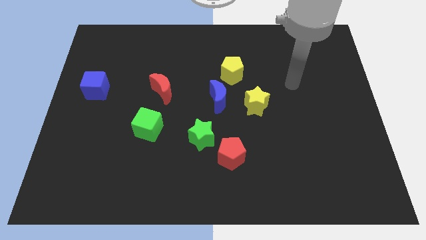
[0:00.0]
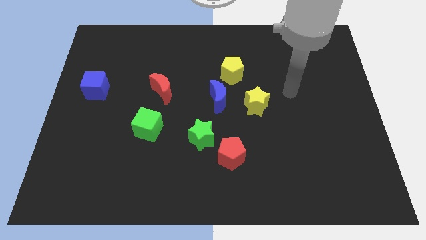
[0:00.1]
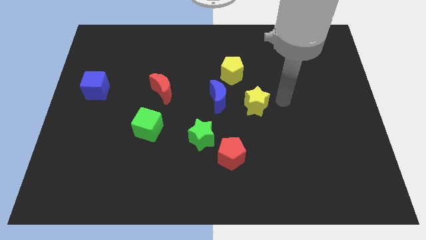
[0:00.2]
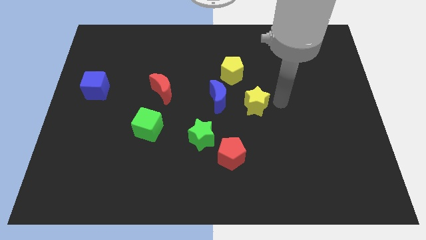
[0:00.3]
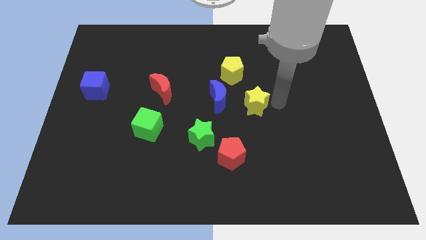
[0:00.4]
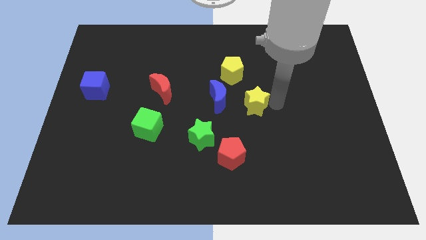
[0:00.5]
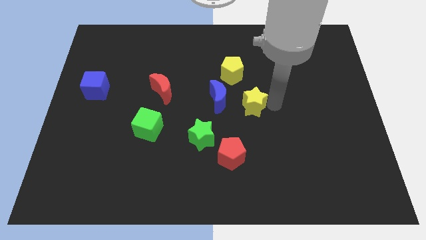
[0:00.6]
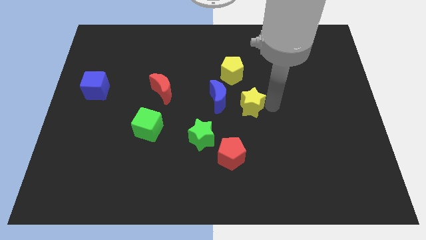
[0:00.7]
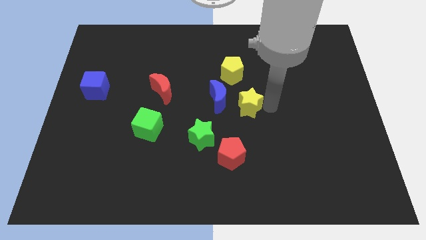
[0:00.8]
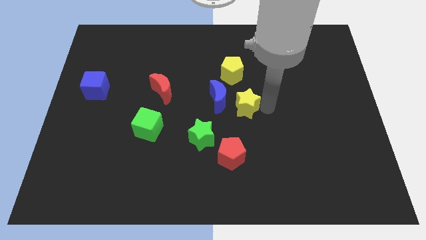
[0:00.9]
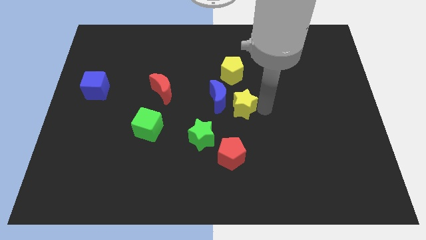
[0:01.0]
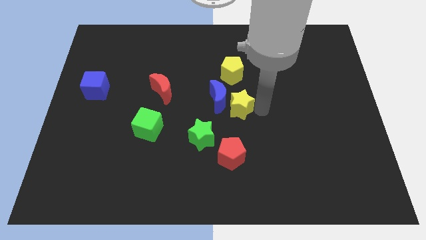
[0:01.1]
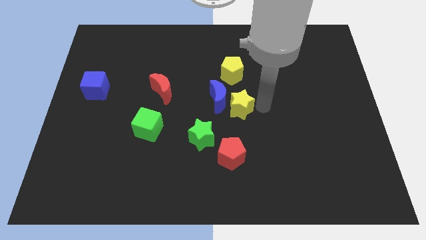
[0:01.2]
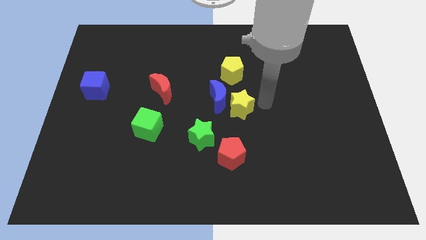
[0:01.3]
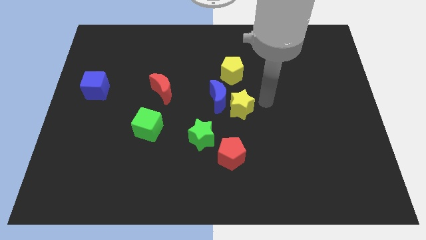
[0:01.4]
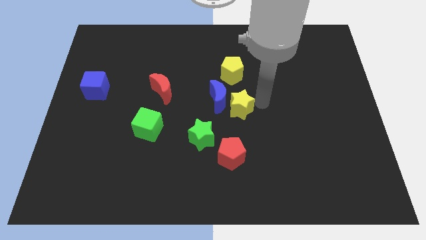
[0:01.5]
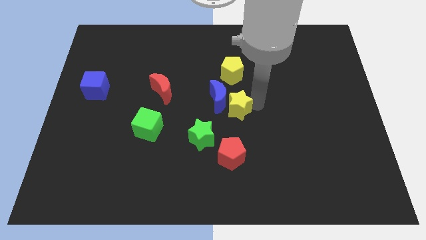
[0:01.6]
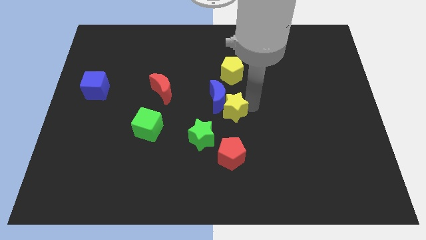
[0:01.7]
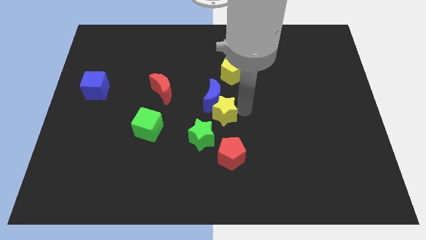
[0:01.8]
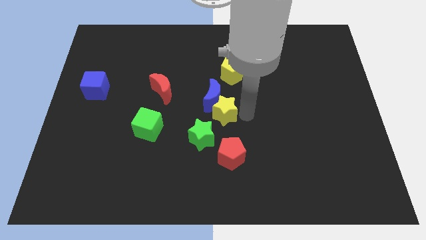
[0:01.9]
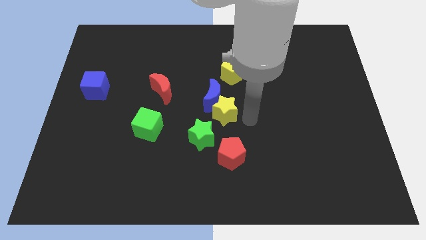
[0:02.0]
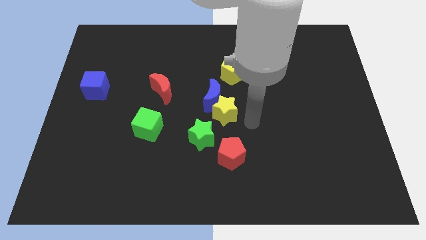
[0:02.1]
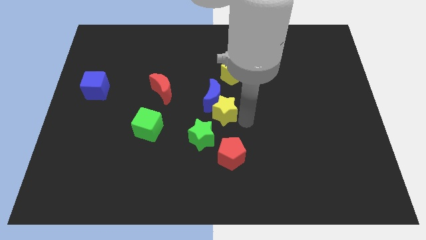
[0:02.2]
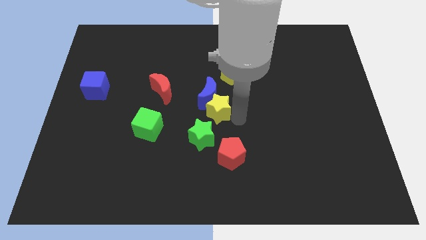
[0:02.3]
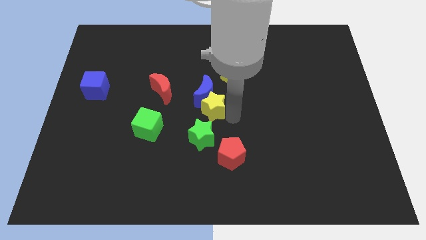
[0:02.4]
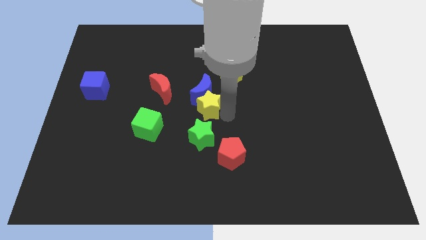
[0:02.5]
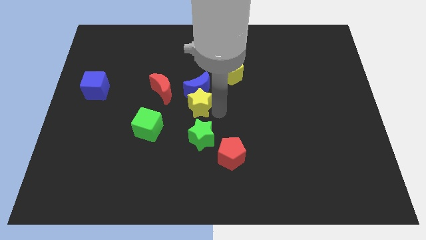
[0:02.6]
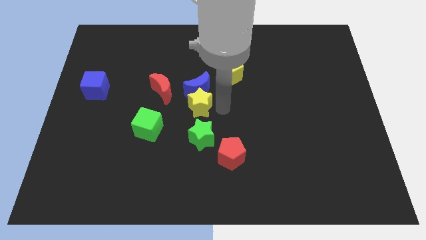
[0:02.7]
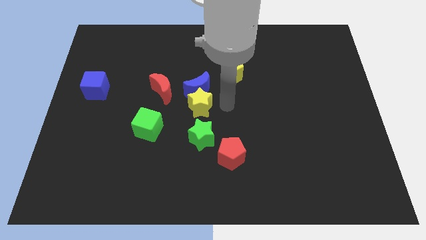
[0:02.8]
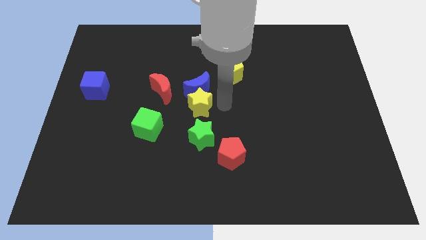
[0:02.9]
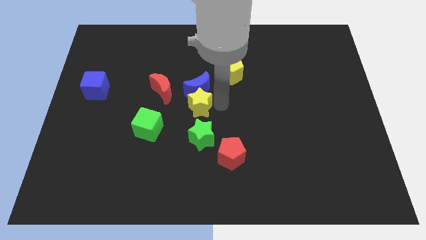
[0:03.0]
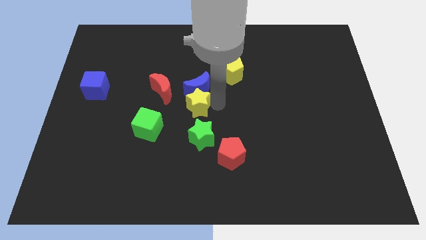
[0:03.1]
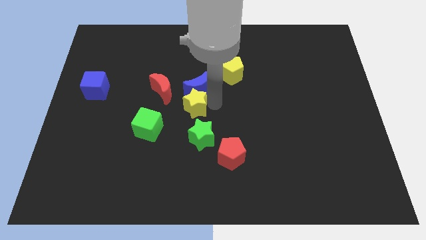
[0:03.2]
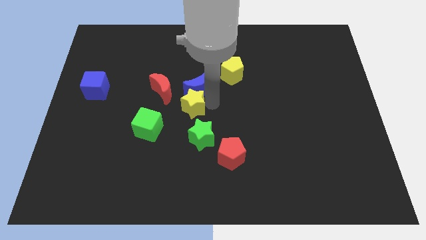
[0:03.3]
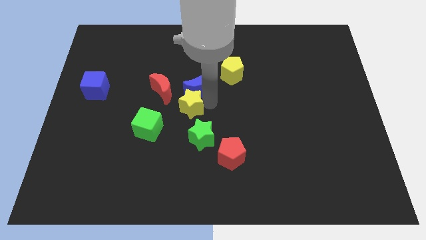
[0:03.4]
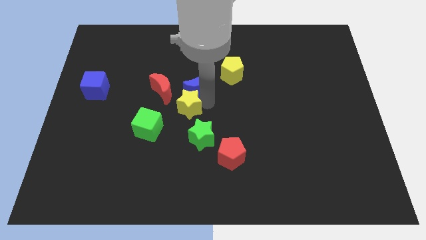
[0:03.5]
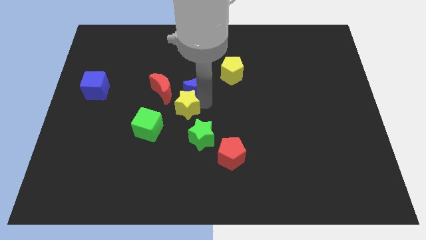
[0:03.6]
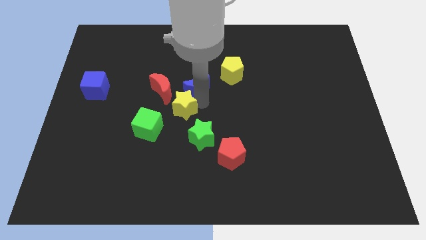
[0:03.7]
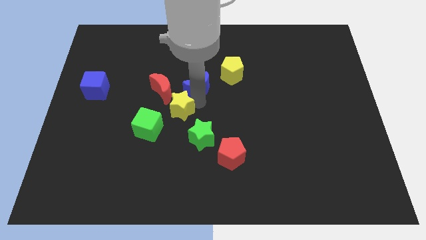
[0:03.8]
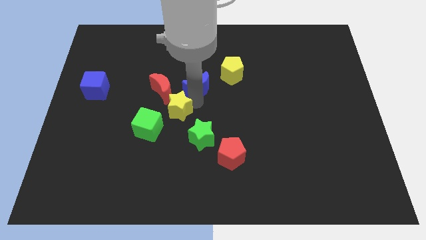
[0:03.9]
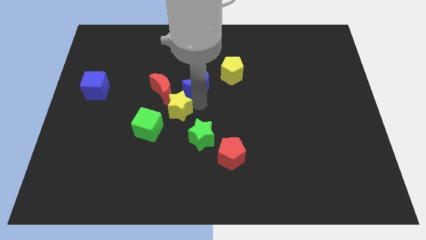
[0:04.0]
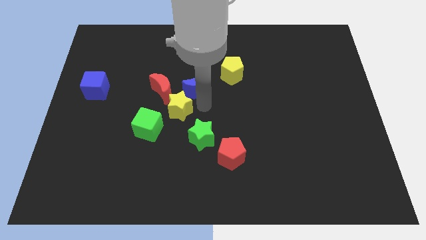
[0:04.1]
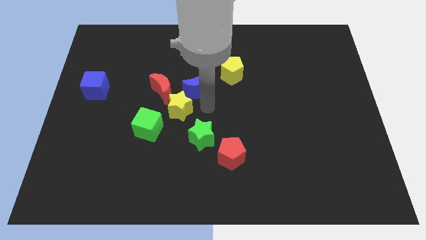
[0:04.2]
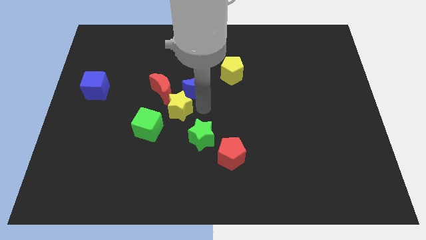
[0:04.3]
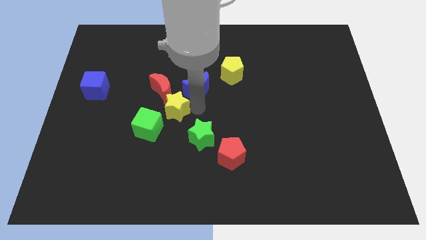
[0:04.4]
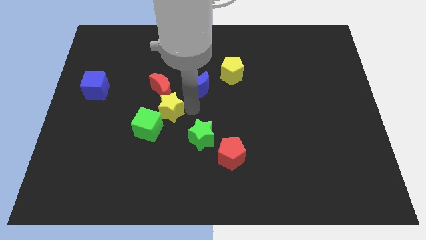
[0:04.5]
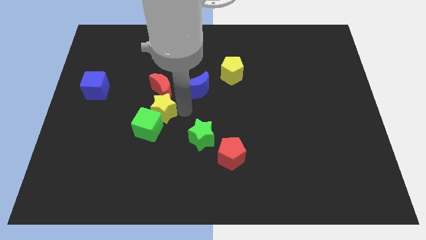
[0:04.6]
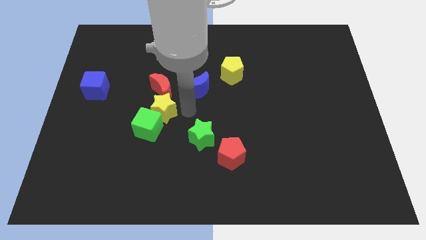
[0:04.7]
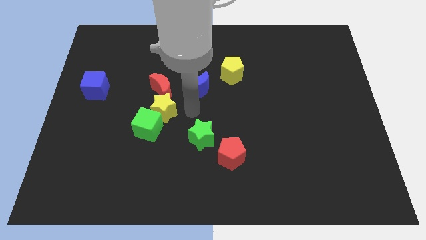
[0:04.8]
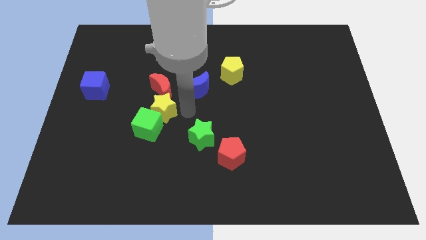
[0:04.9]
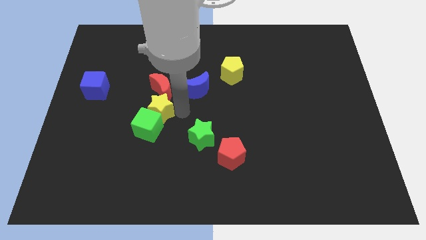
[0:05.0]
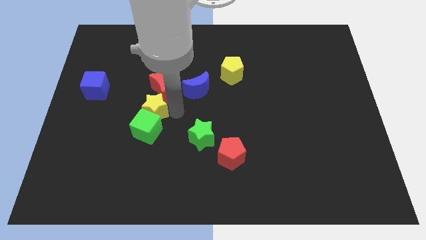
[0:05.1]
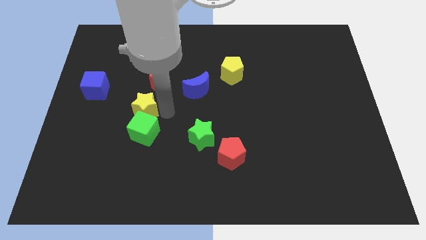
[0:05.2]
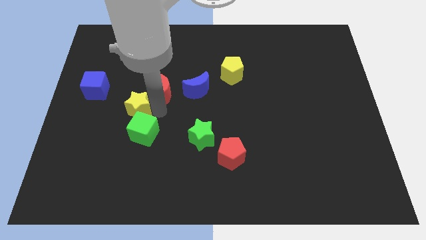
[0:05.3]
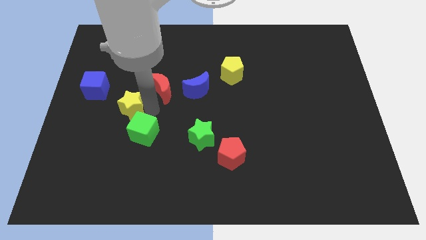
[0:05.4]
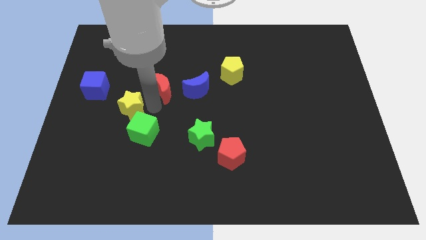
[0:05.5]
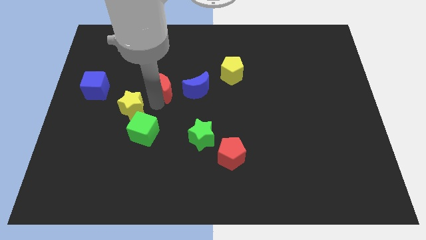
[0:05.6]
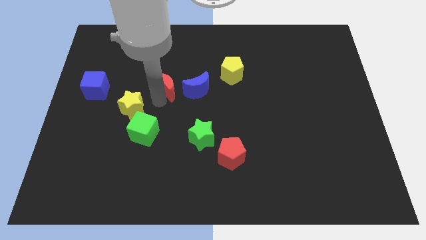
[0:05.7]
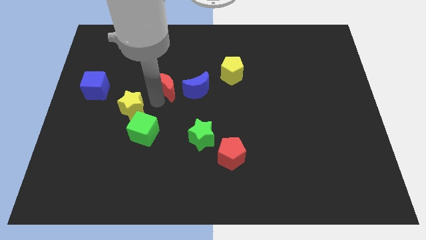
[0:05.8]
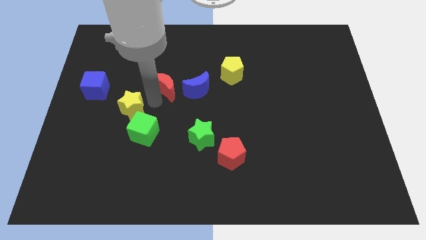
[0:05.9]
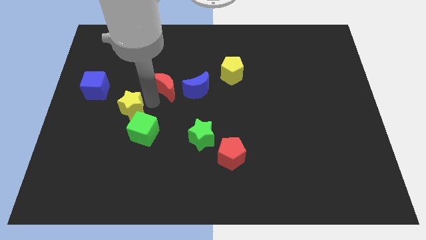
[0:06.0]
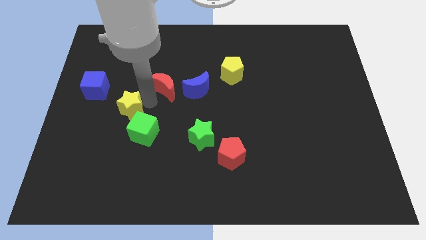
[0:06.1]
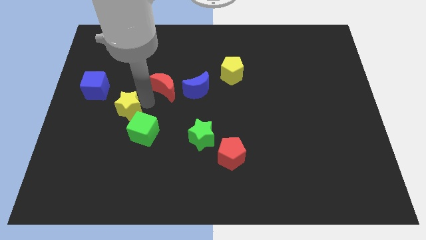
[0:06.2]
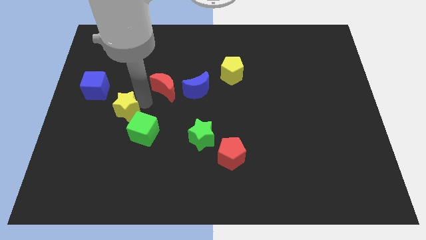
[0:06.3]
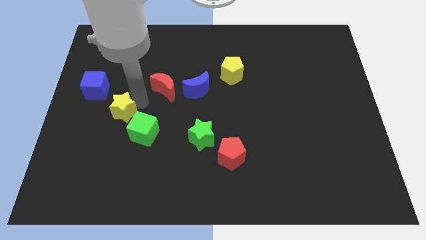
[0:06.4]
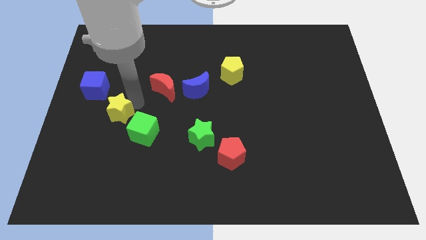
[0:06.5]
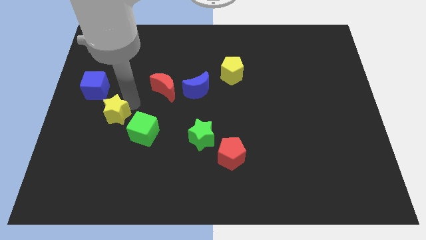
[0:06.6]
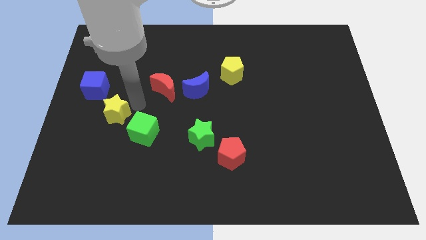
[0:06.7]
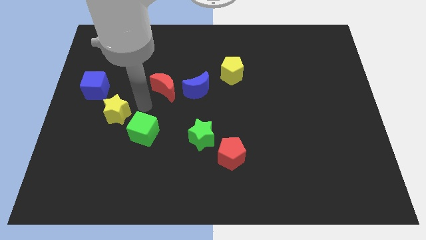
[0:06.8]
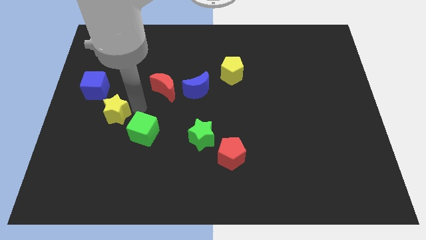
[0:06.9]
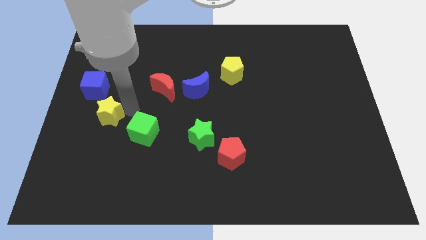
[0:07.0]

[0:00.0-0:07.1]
put the yellow star to the bottom of the blue cube
